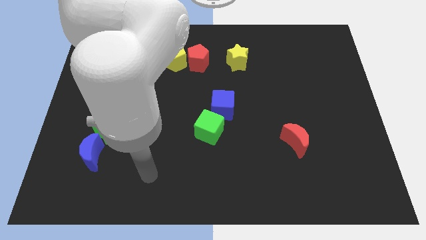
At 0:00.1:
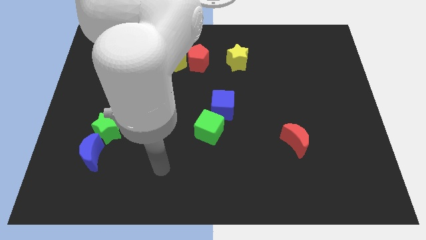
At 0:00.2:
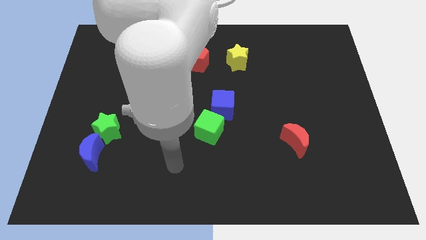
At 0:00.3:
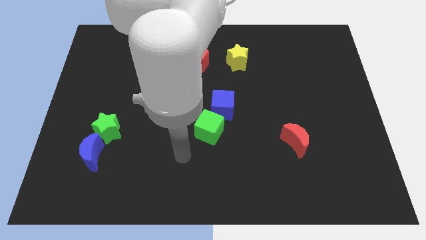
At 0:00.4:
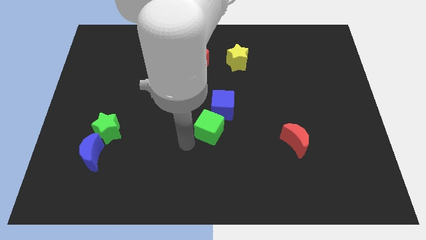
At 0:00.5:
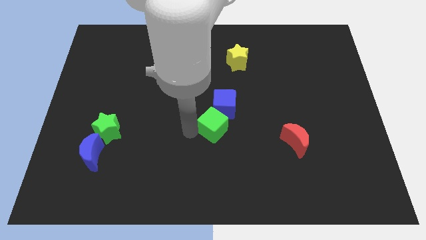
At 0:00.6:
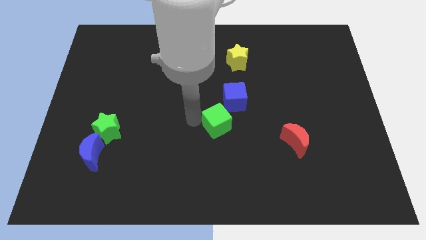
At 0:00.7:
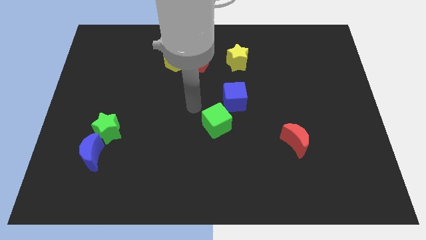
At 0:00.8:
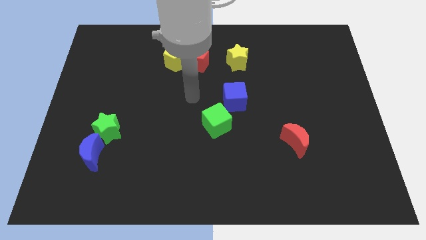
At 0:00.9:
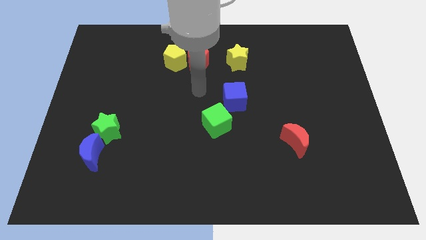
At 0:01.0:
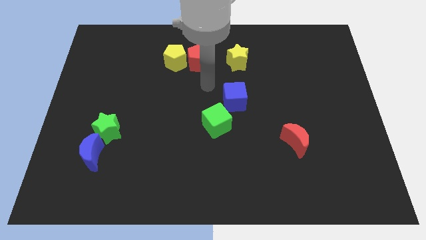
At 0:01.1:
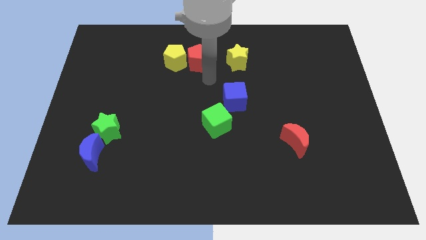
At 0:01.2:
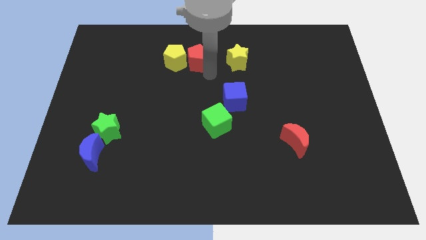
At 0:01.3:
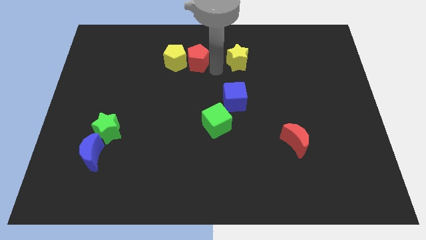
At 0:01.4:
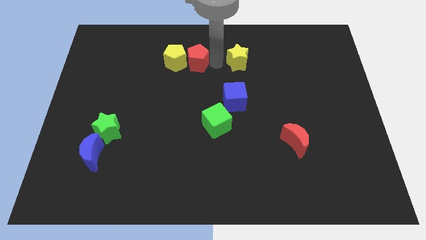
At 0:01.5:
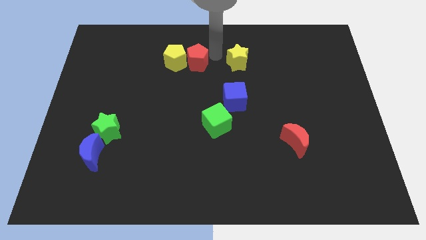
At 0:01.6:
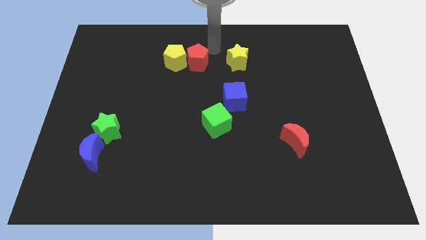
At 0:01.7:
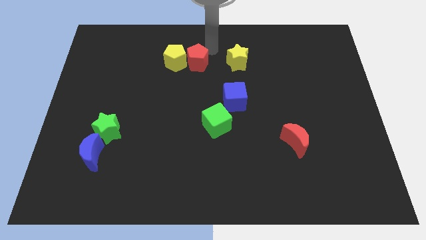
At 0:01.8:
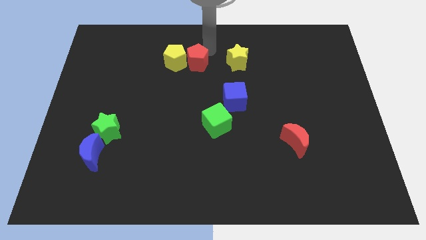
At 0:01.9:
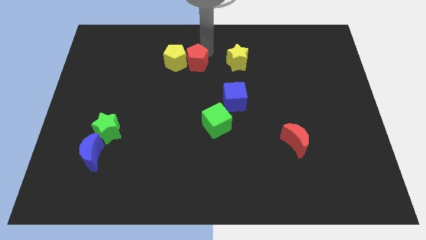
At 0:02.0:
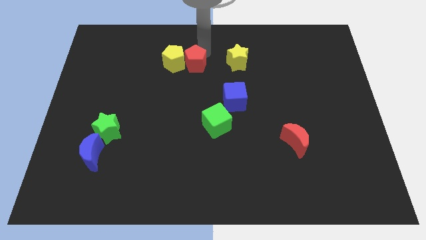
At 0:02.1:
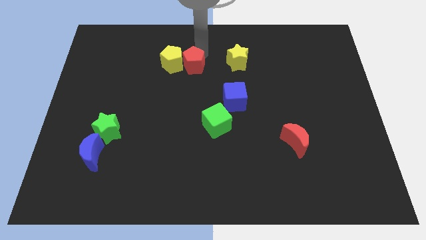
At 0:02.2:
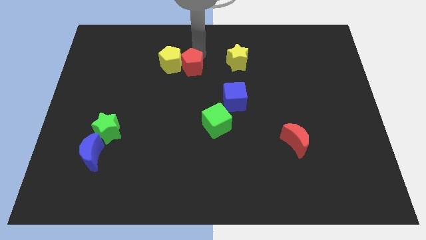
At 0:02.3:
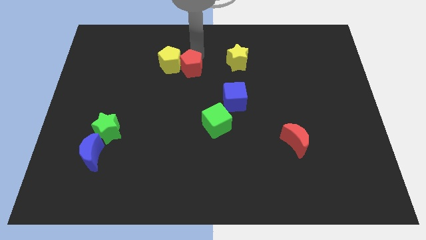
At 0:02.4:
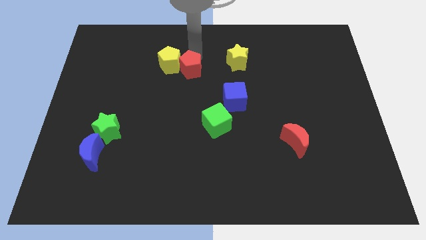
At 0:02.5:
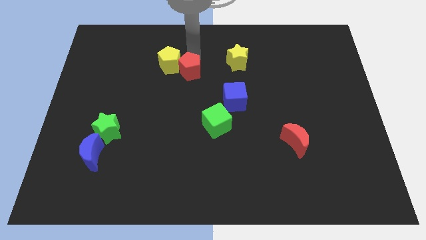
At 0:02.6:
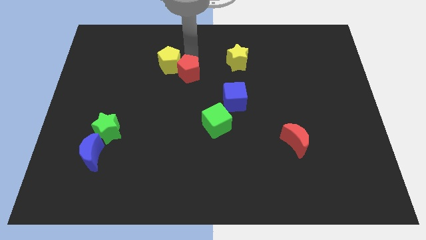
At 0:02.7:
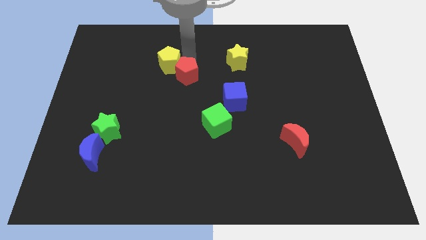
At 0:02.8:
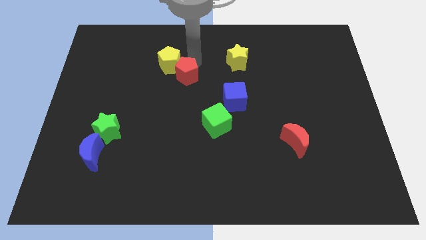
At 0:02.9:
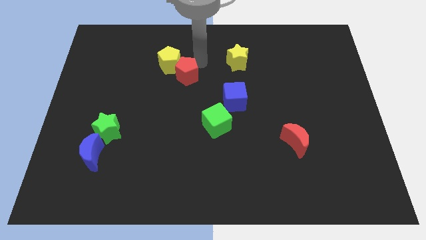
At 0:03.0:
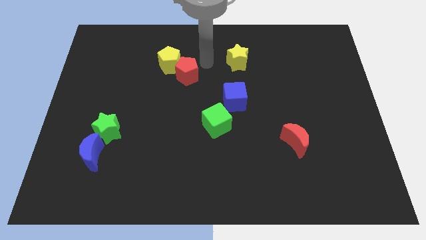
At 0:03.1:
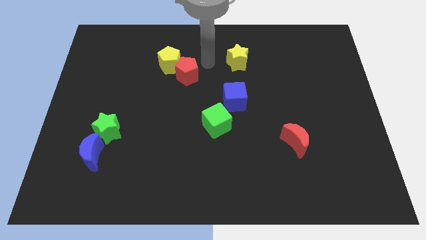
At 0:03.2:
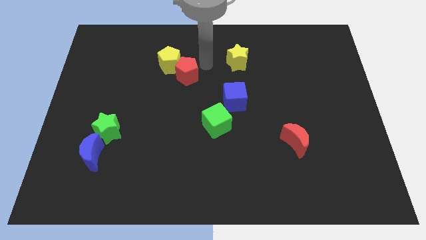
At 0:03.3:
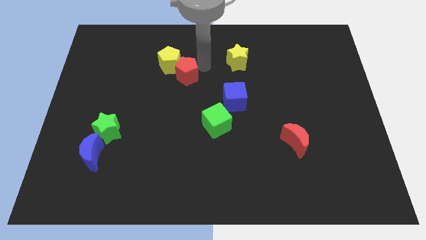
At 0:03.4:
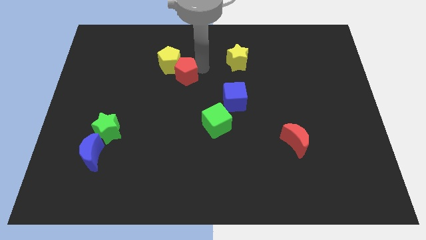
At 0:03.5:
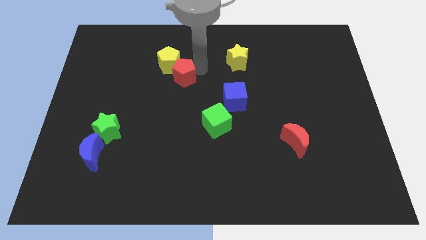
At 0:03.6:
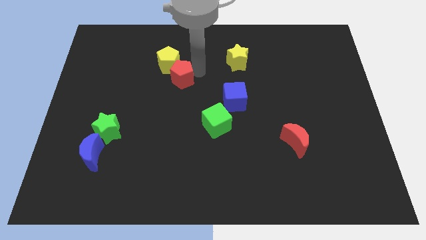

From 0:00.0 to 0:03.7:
slide the red pentagon downwards and to the left somewhat

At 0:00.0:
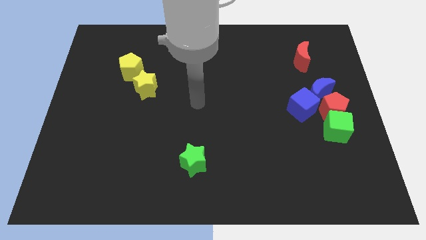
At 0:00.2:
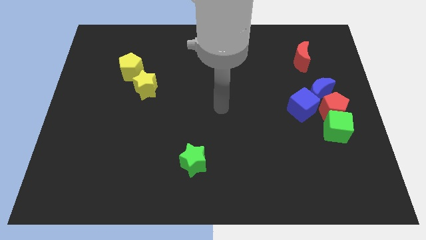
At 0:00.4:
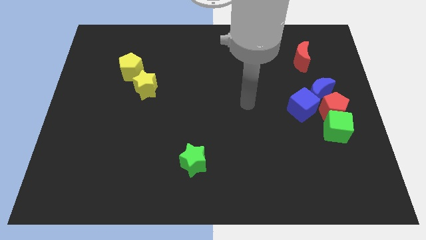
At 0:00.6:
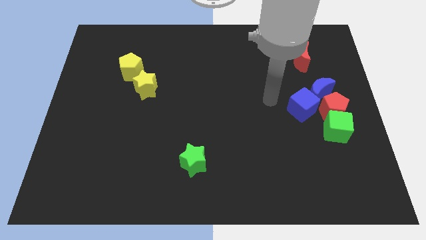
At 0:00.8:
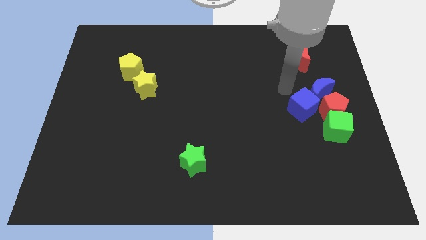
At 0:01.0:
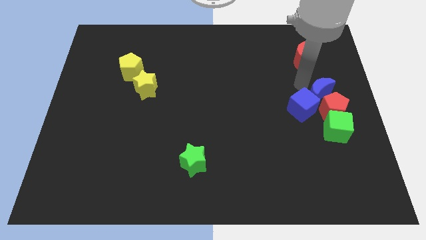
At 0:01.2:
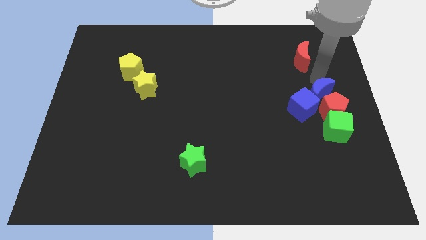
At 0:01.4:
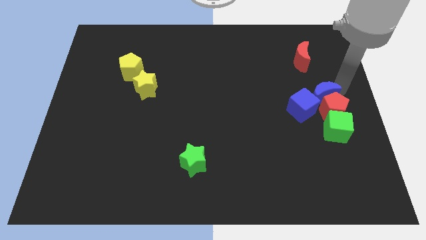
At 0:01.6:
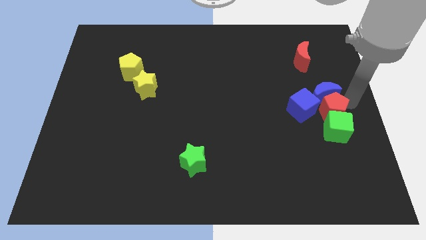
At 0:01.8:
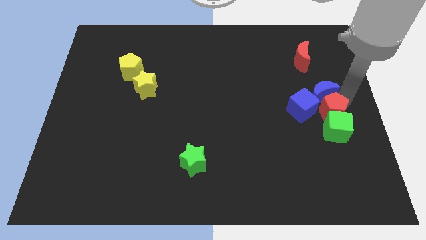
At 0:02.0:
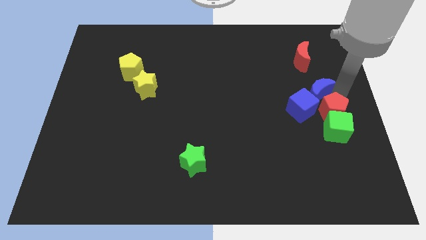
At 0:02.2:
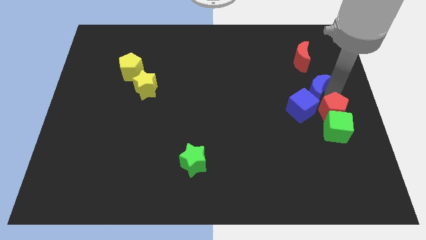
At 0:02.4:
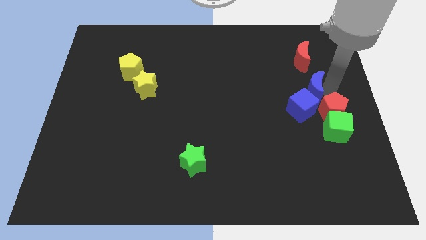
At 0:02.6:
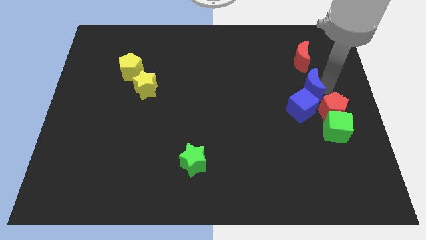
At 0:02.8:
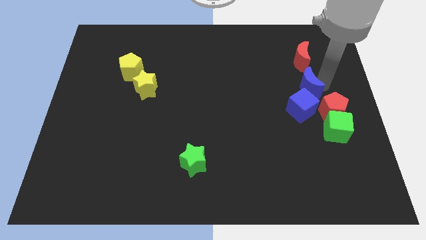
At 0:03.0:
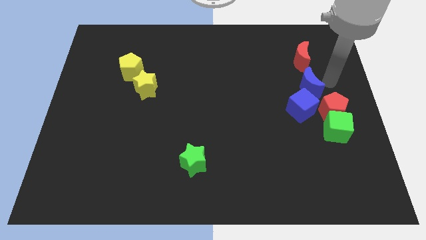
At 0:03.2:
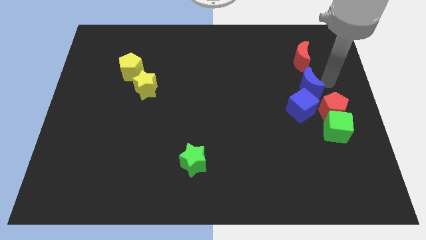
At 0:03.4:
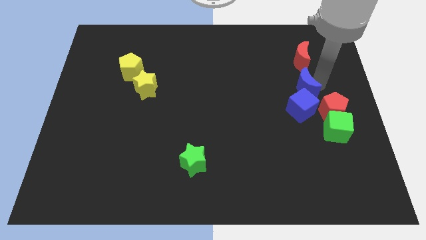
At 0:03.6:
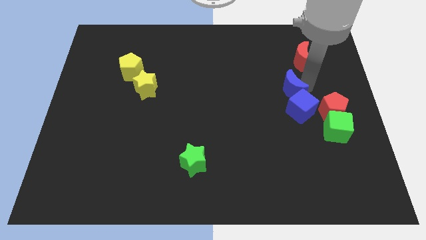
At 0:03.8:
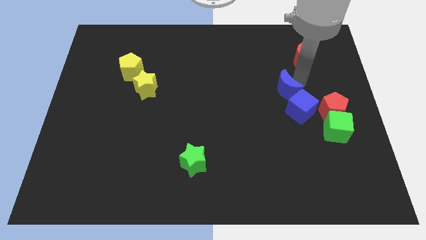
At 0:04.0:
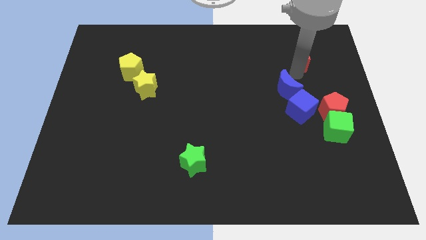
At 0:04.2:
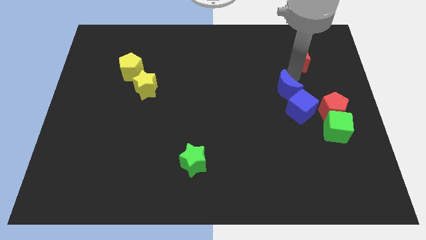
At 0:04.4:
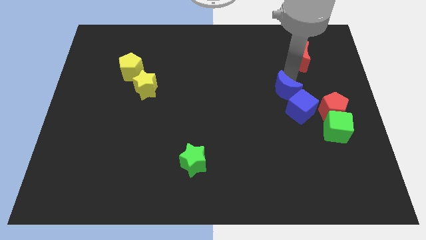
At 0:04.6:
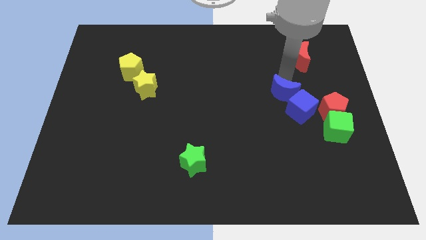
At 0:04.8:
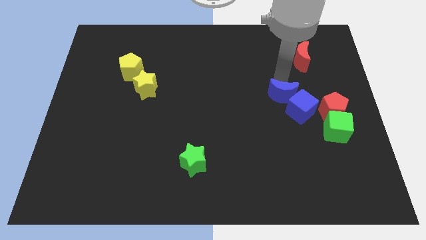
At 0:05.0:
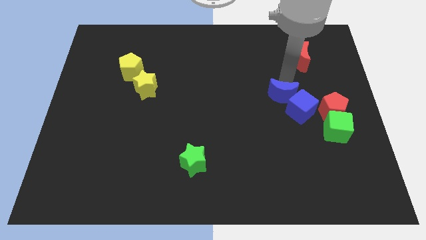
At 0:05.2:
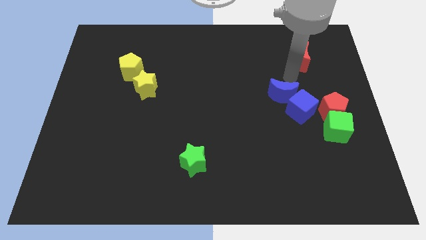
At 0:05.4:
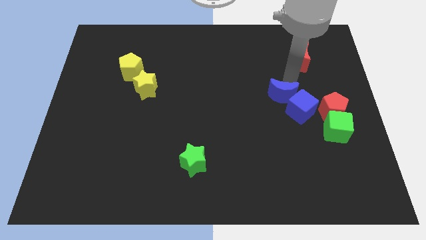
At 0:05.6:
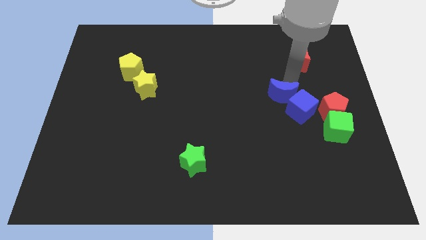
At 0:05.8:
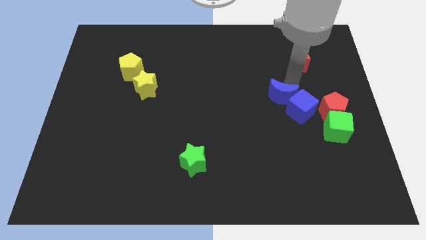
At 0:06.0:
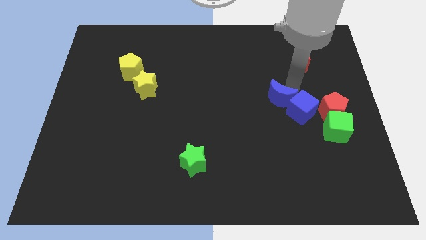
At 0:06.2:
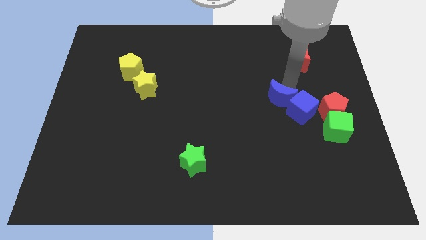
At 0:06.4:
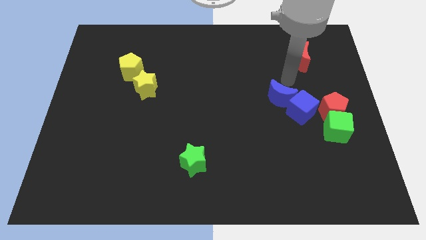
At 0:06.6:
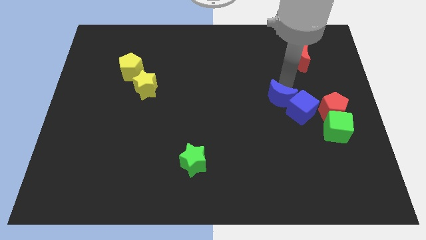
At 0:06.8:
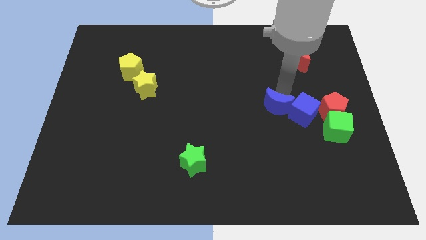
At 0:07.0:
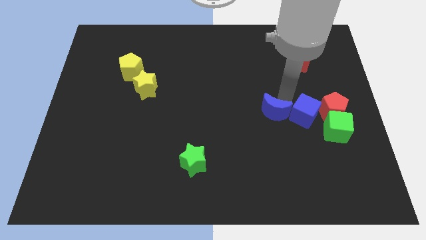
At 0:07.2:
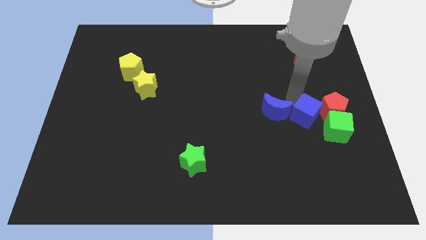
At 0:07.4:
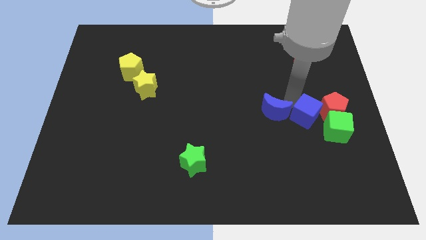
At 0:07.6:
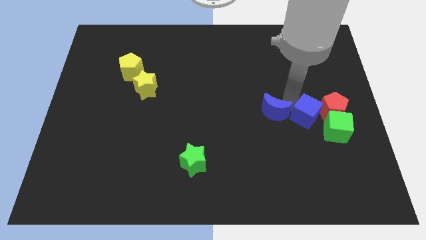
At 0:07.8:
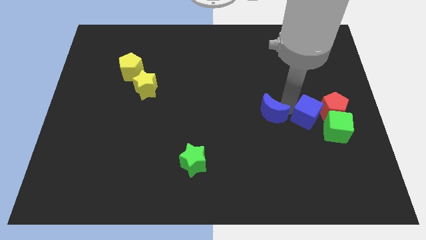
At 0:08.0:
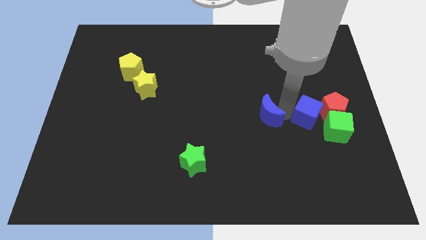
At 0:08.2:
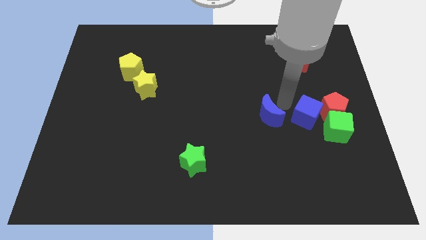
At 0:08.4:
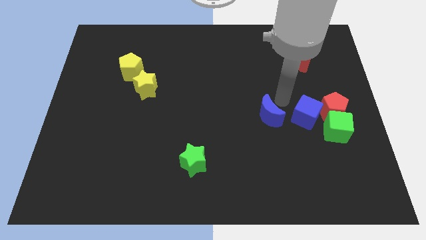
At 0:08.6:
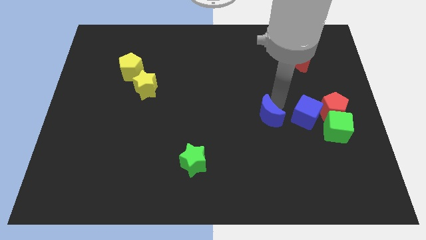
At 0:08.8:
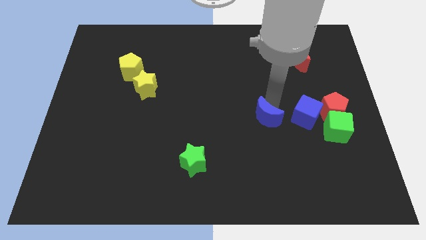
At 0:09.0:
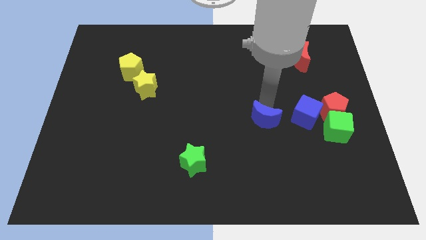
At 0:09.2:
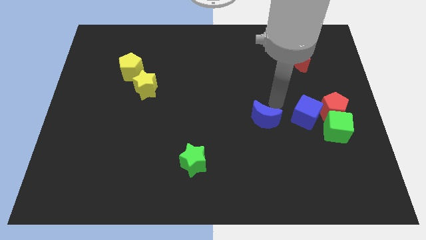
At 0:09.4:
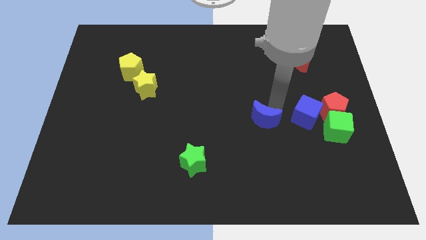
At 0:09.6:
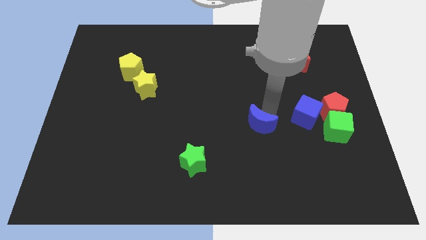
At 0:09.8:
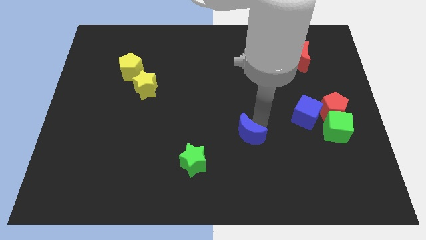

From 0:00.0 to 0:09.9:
slide the blue moon down and then left
